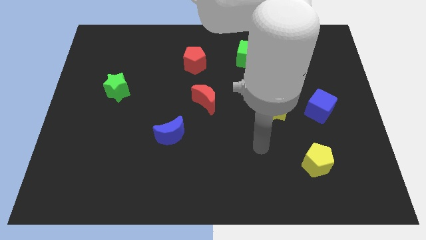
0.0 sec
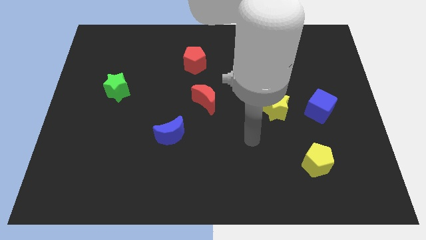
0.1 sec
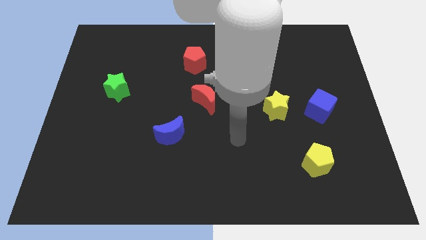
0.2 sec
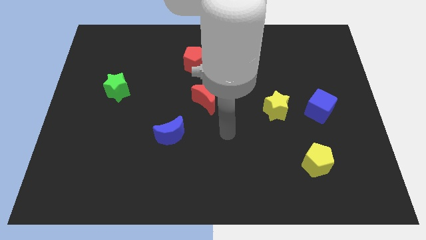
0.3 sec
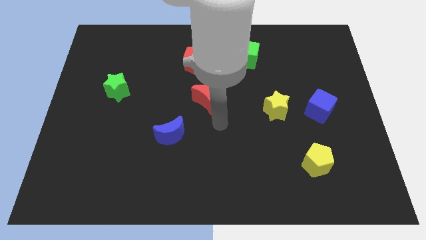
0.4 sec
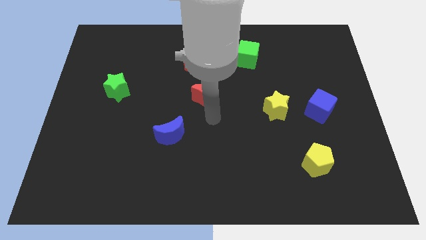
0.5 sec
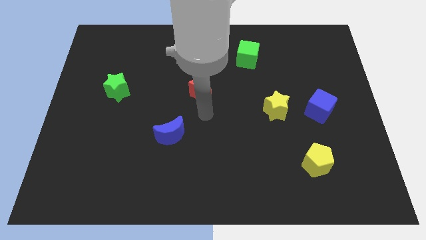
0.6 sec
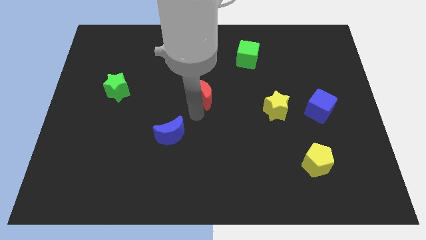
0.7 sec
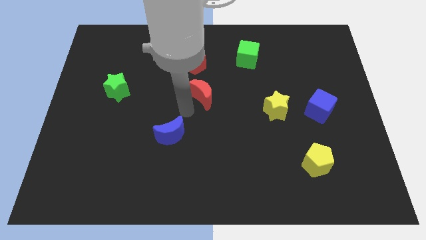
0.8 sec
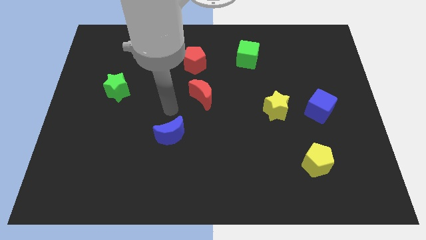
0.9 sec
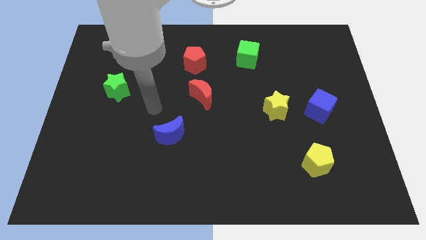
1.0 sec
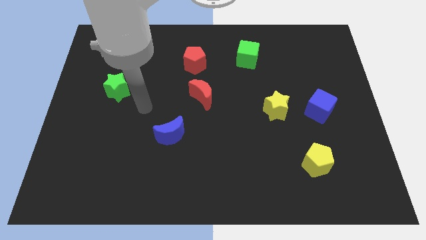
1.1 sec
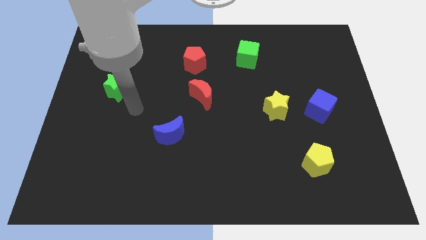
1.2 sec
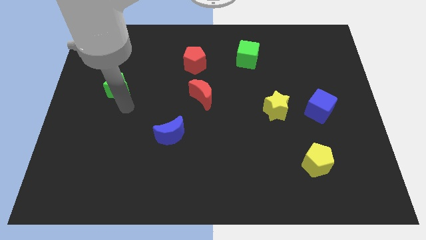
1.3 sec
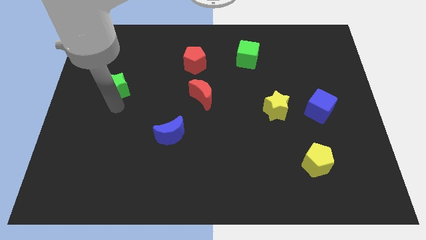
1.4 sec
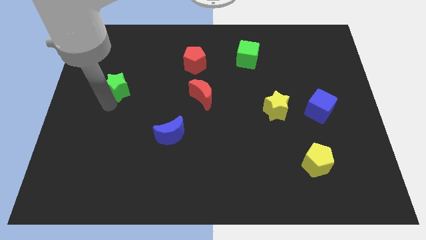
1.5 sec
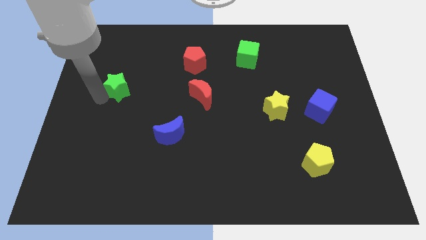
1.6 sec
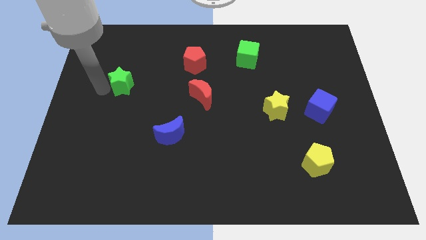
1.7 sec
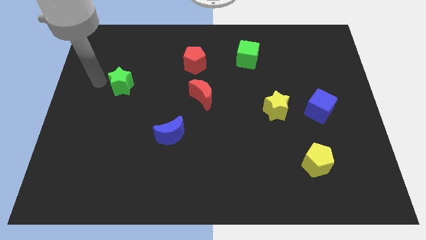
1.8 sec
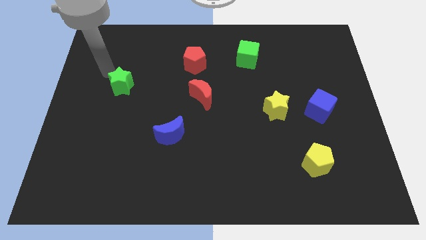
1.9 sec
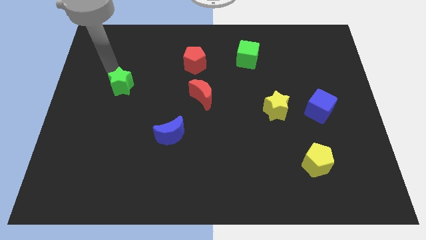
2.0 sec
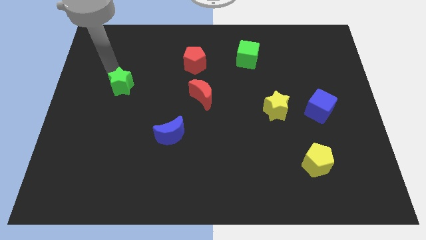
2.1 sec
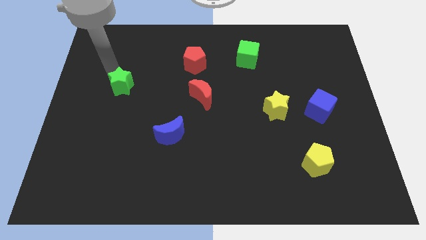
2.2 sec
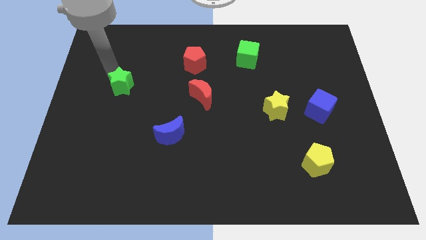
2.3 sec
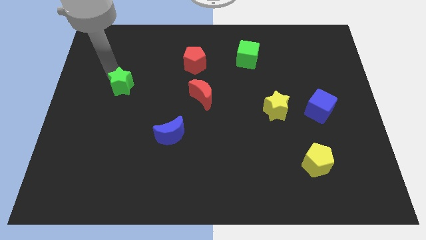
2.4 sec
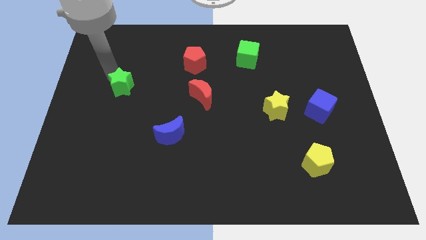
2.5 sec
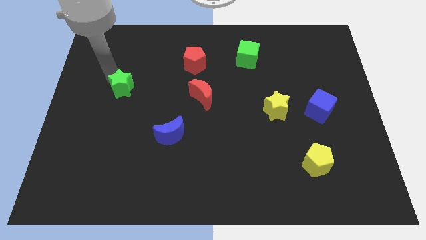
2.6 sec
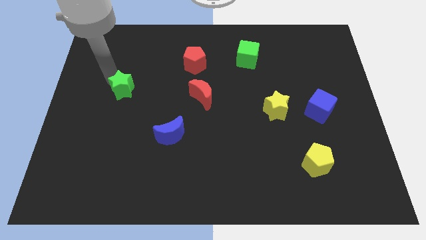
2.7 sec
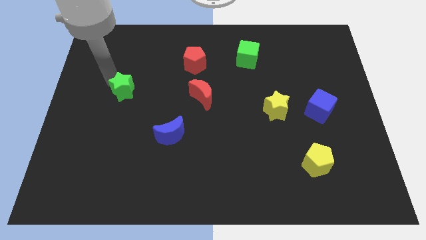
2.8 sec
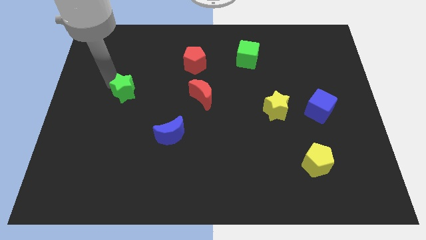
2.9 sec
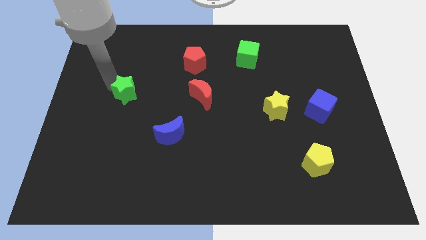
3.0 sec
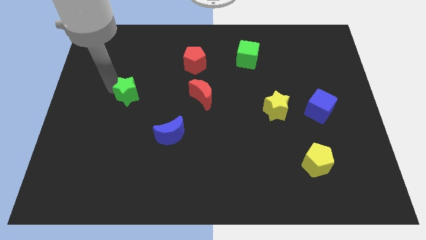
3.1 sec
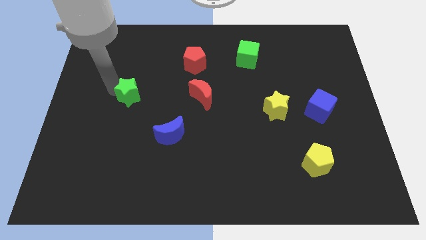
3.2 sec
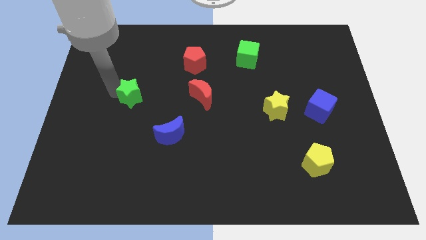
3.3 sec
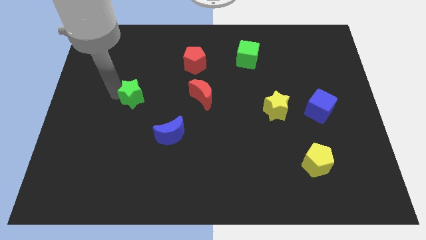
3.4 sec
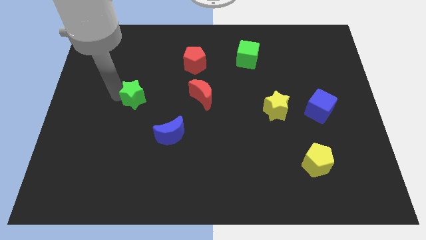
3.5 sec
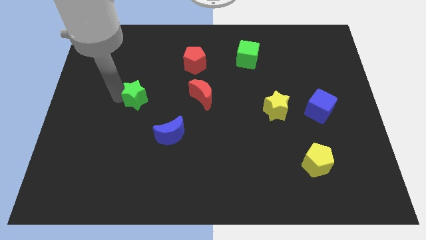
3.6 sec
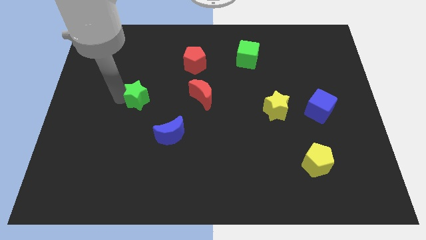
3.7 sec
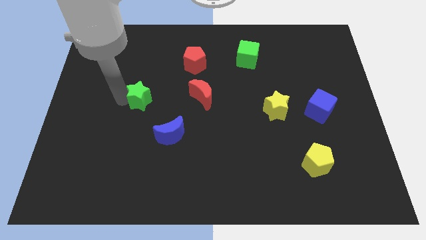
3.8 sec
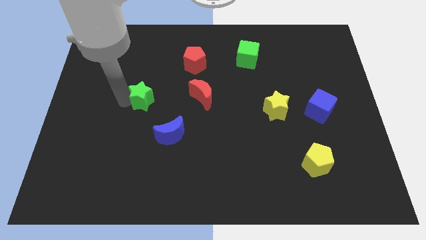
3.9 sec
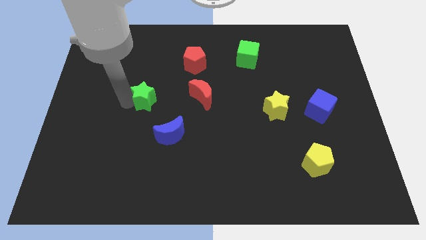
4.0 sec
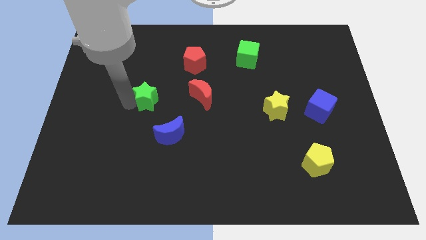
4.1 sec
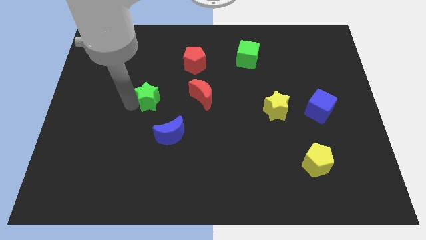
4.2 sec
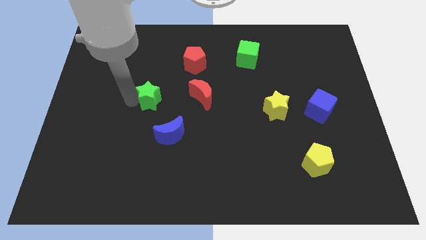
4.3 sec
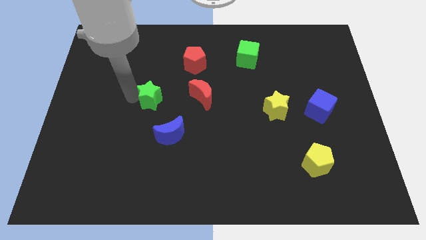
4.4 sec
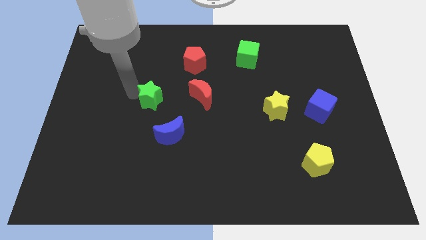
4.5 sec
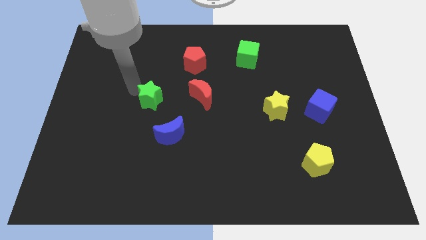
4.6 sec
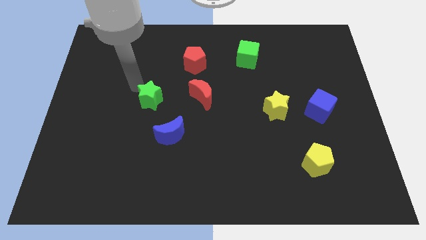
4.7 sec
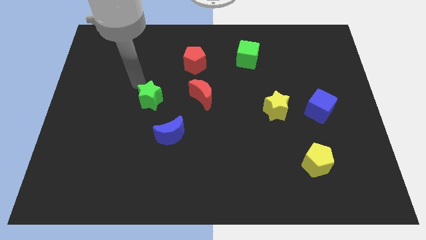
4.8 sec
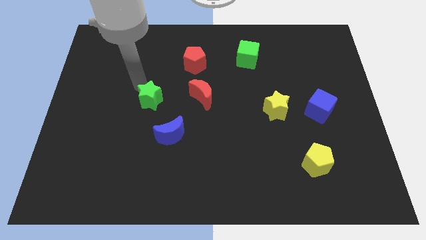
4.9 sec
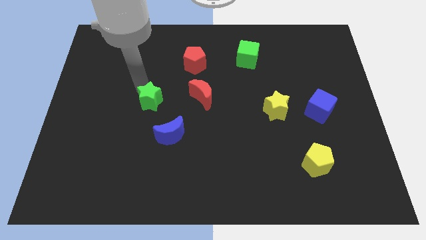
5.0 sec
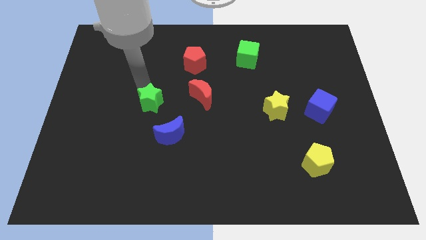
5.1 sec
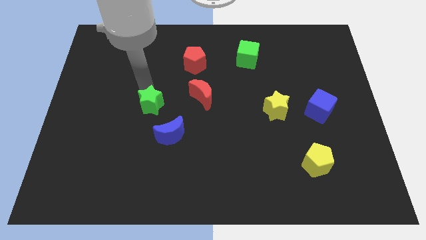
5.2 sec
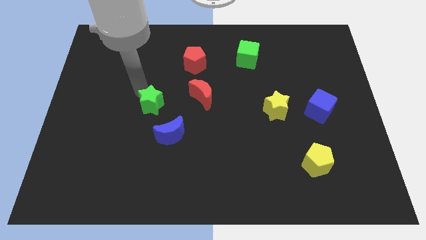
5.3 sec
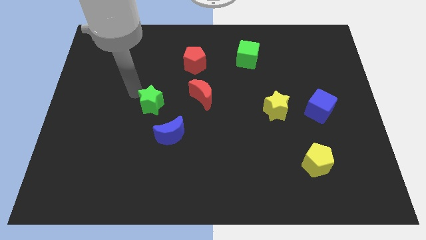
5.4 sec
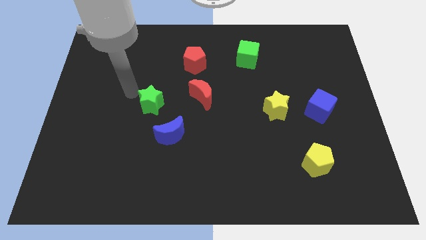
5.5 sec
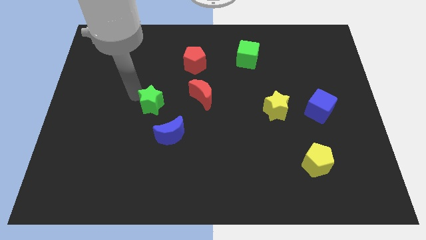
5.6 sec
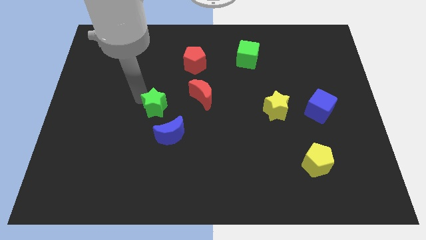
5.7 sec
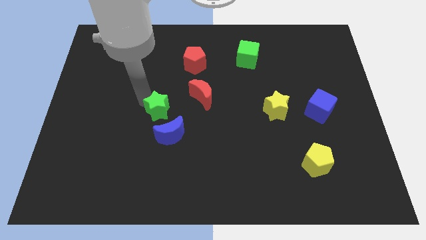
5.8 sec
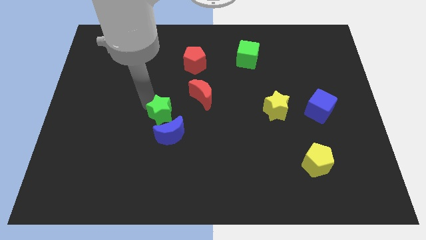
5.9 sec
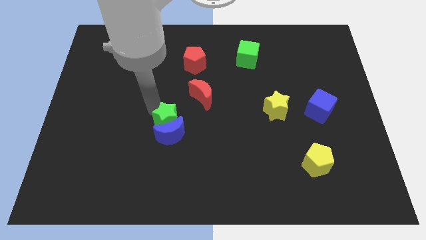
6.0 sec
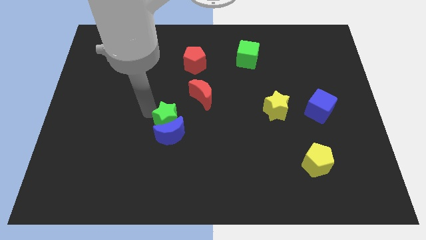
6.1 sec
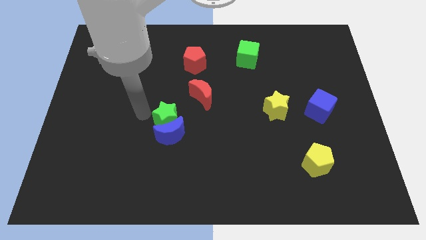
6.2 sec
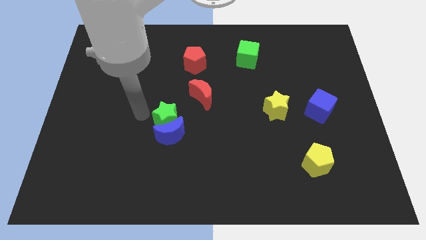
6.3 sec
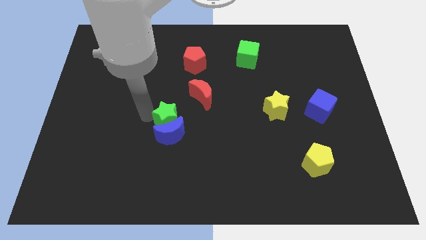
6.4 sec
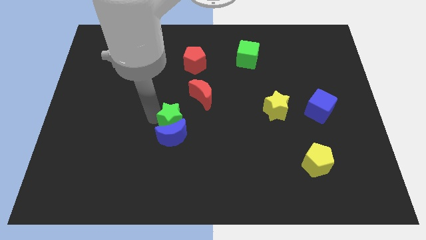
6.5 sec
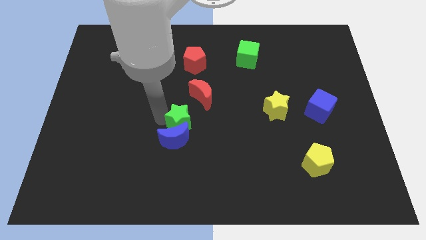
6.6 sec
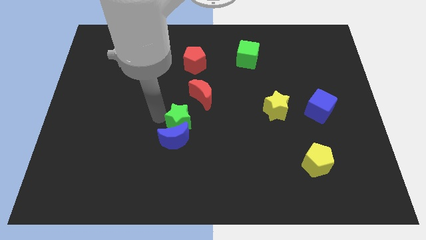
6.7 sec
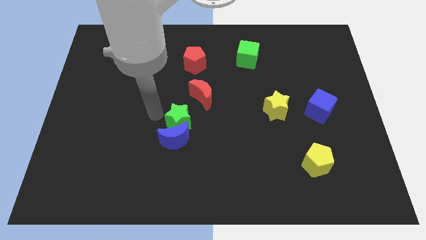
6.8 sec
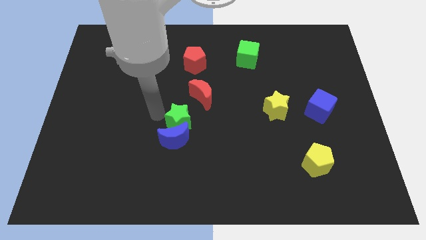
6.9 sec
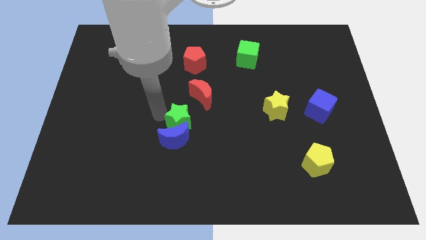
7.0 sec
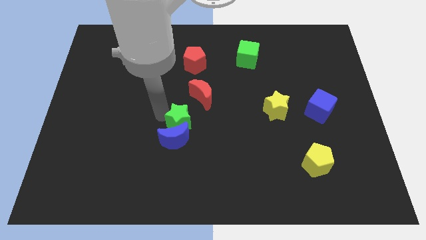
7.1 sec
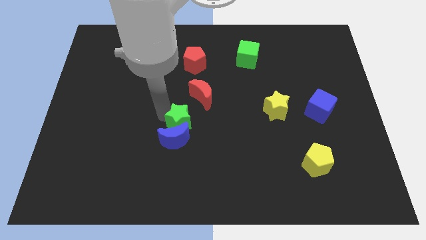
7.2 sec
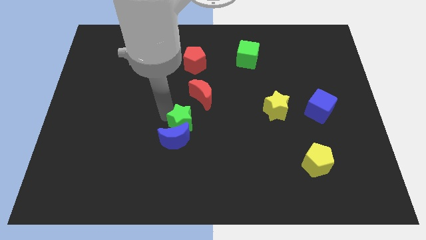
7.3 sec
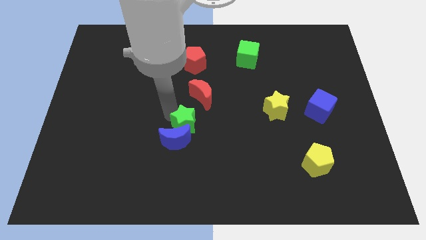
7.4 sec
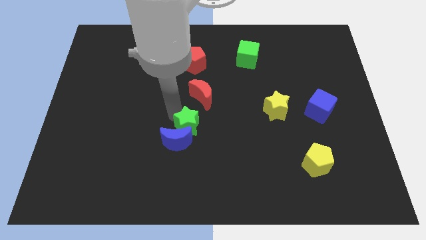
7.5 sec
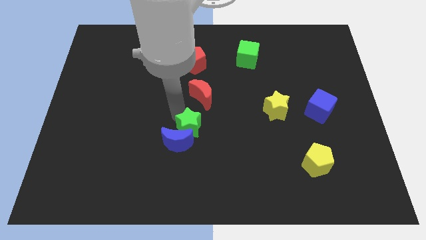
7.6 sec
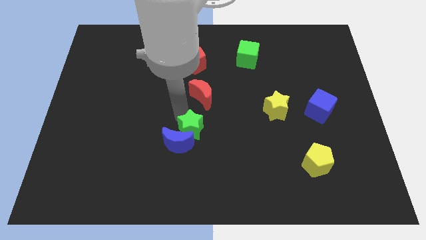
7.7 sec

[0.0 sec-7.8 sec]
push the green star downwards and to the right

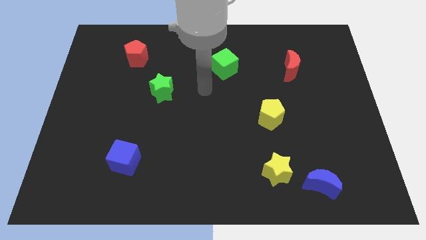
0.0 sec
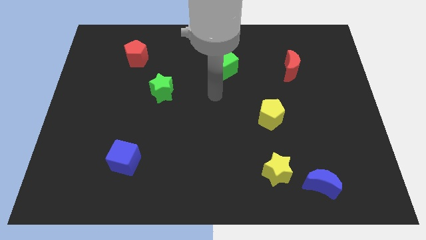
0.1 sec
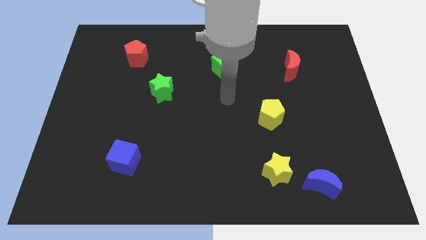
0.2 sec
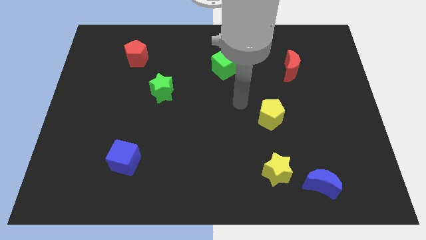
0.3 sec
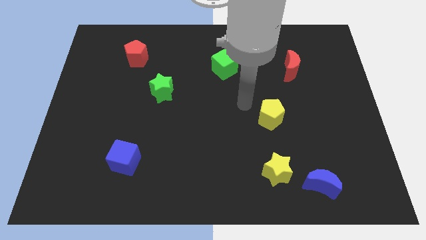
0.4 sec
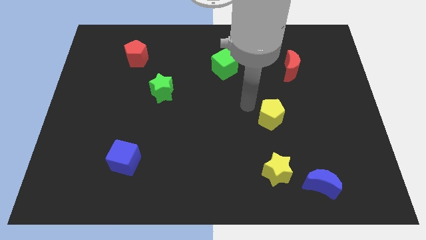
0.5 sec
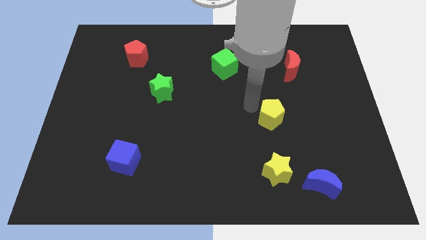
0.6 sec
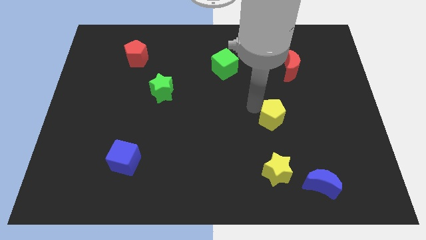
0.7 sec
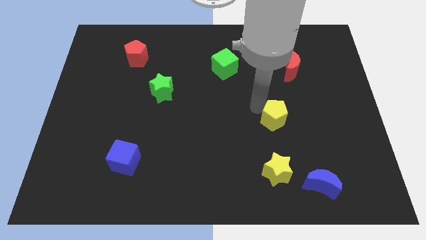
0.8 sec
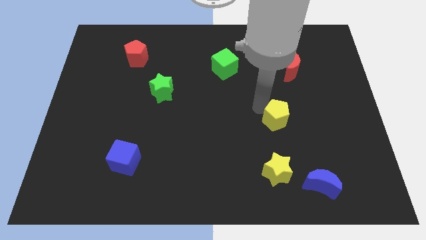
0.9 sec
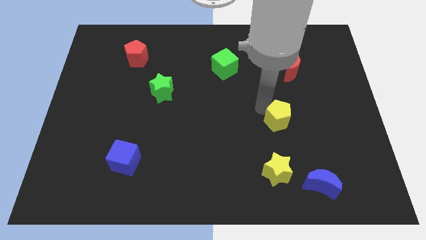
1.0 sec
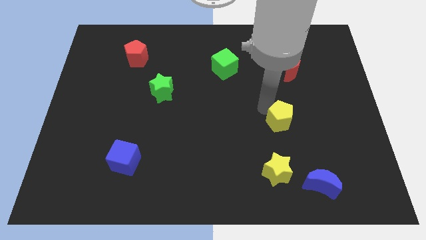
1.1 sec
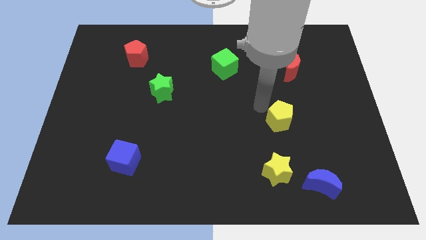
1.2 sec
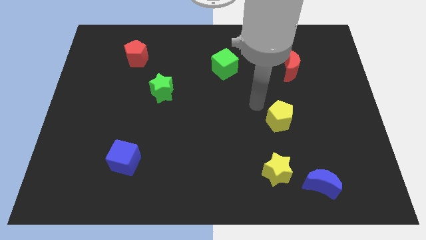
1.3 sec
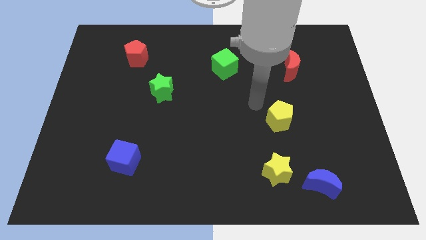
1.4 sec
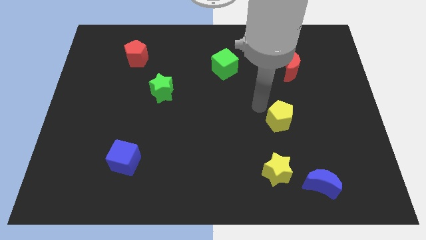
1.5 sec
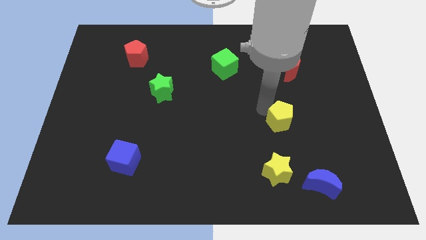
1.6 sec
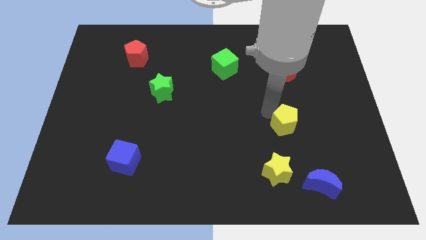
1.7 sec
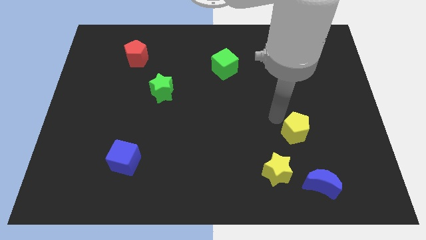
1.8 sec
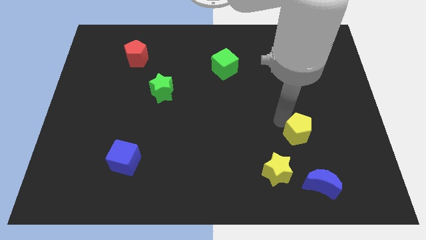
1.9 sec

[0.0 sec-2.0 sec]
move the yellow pentagon slightly diagonally downwards and right
